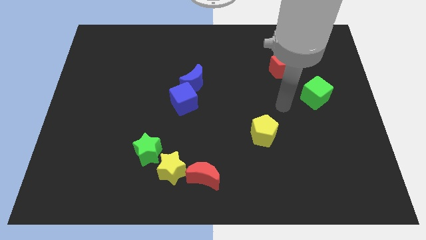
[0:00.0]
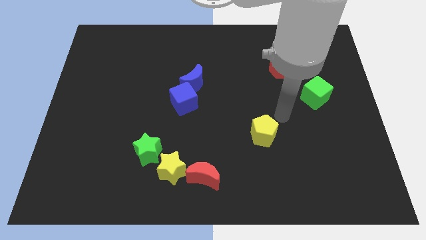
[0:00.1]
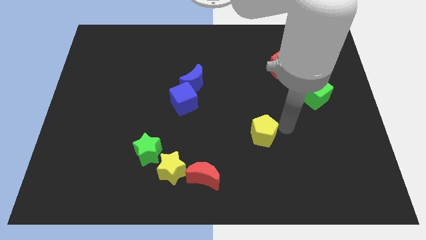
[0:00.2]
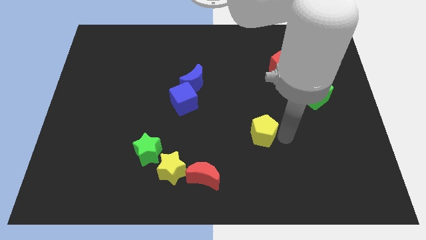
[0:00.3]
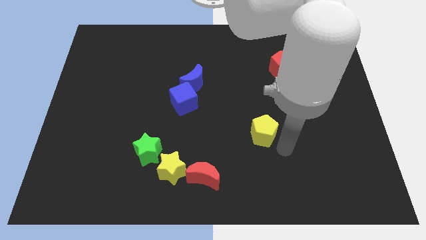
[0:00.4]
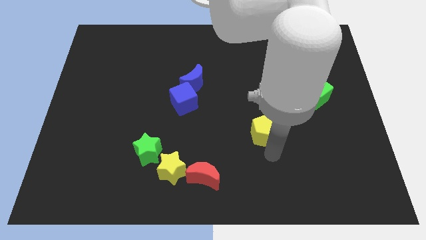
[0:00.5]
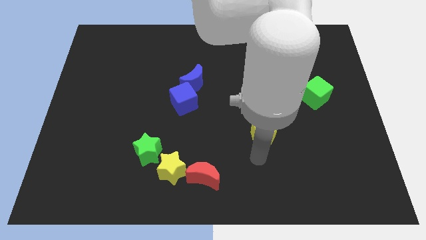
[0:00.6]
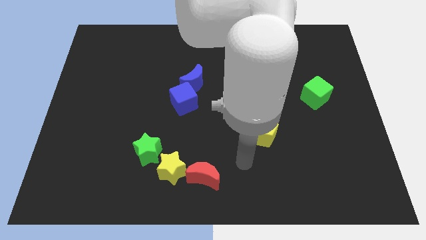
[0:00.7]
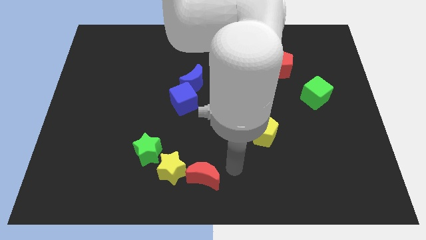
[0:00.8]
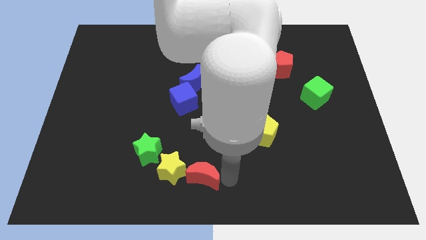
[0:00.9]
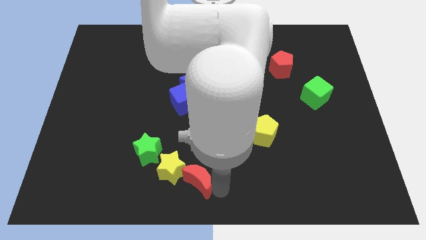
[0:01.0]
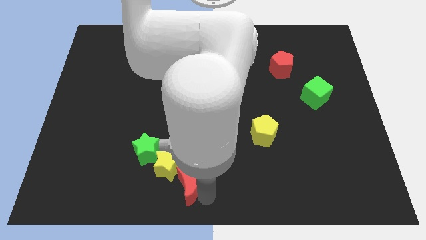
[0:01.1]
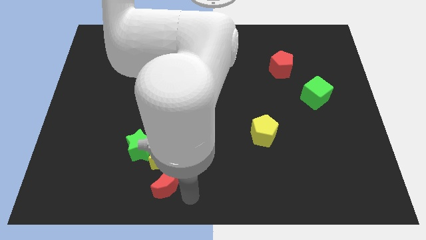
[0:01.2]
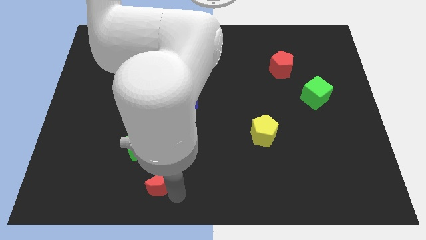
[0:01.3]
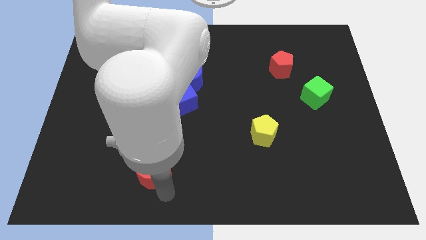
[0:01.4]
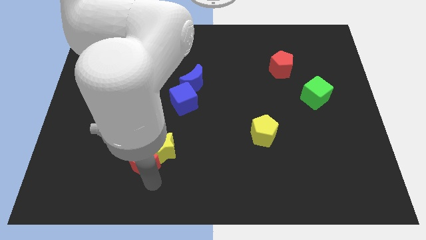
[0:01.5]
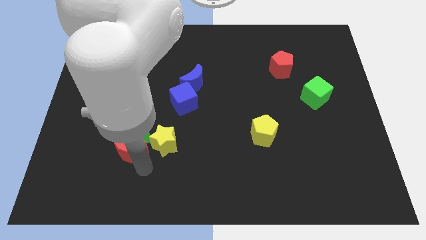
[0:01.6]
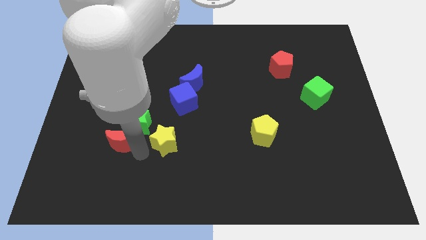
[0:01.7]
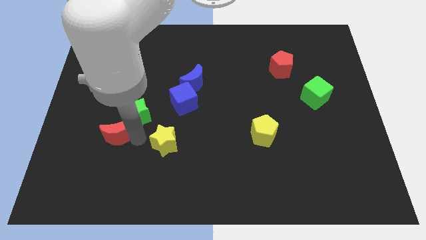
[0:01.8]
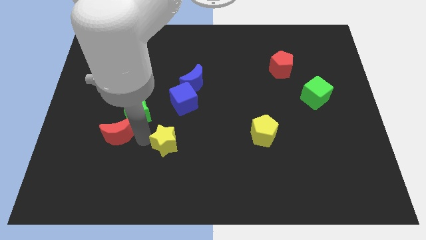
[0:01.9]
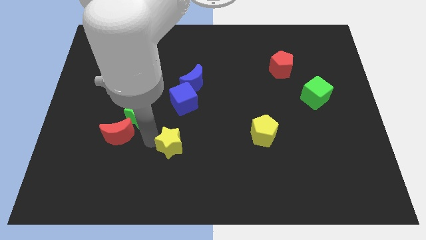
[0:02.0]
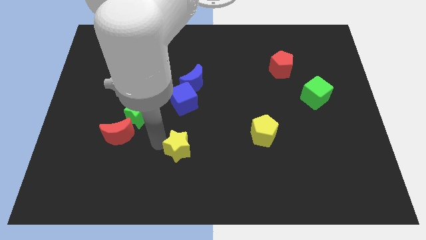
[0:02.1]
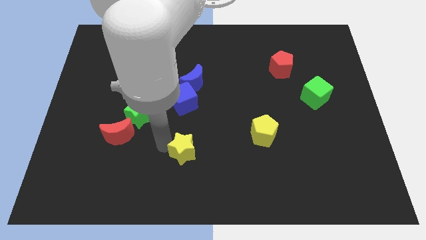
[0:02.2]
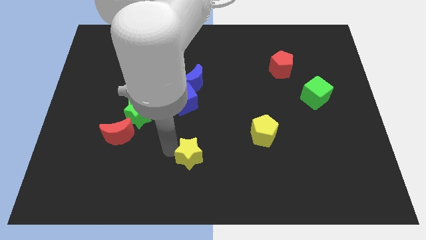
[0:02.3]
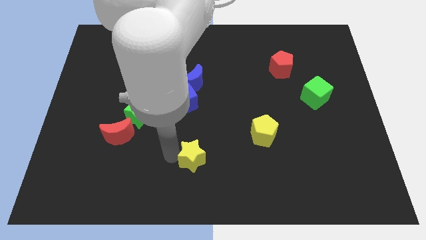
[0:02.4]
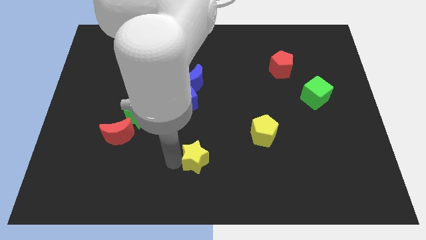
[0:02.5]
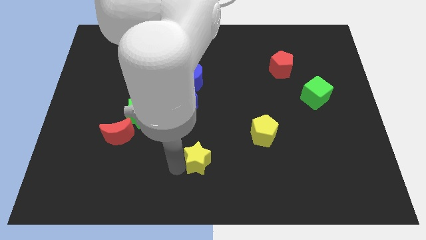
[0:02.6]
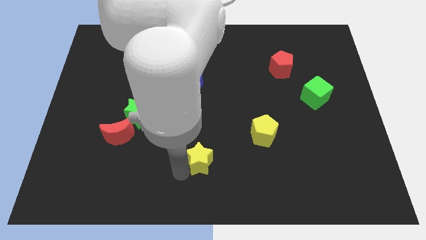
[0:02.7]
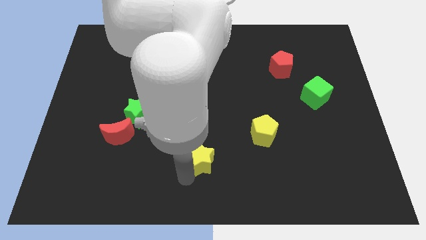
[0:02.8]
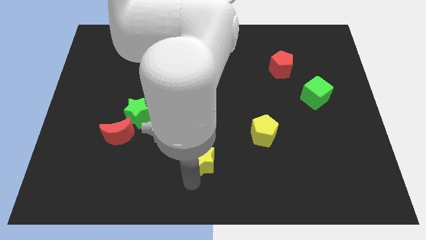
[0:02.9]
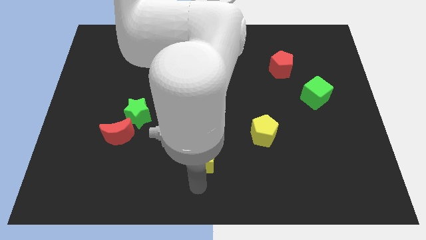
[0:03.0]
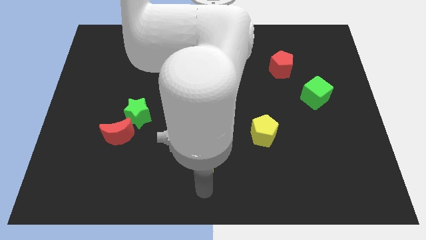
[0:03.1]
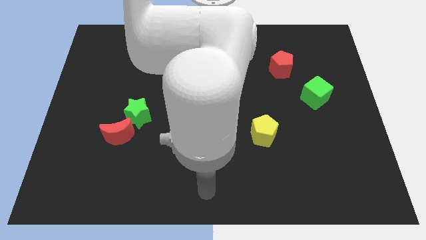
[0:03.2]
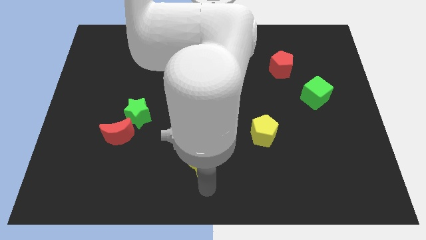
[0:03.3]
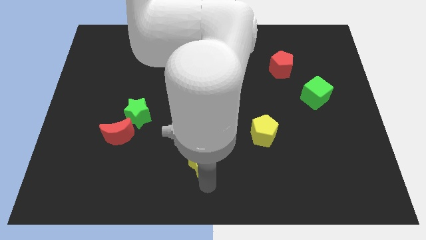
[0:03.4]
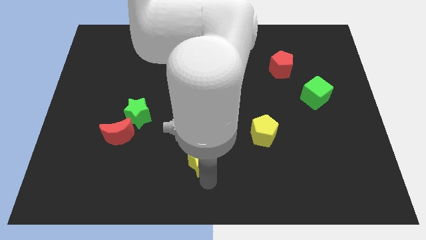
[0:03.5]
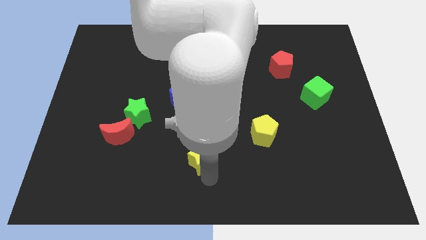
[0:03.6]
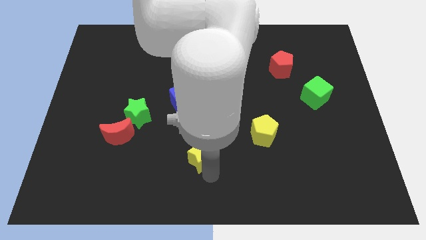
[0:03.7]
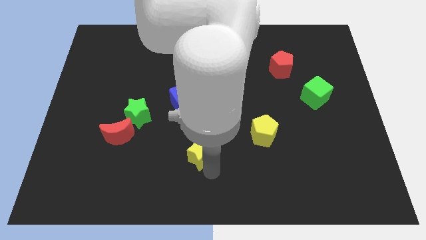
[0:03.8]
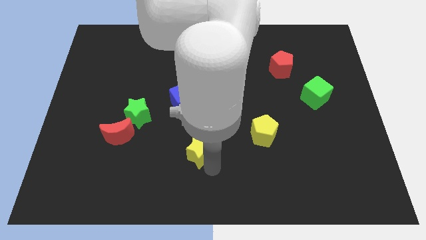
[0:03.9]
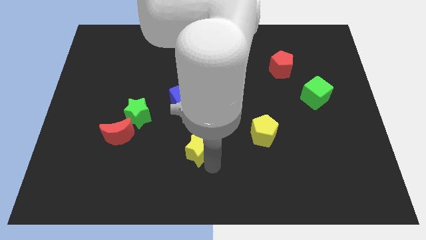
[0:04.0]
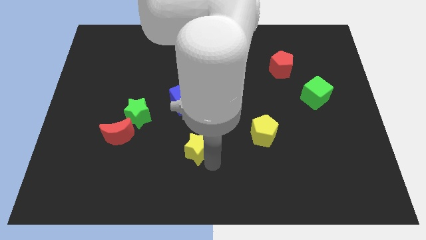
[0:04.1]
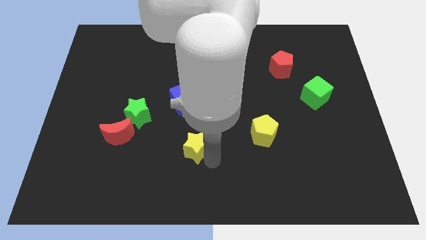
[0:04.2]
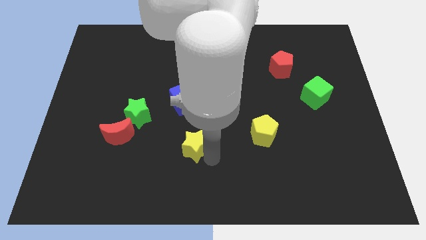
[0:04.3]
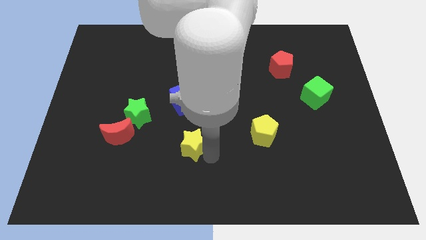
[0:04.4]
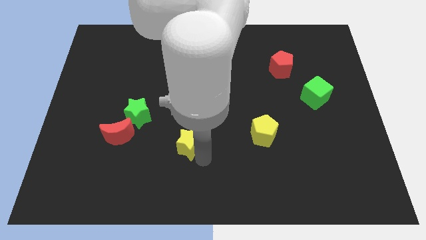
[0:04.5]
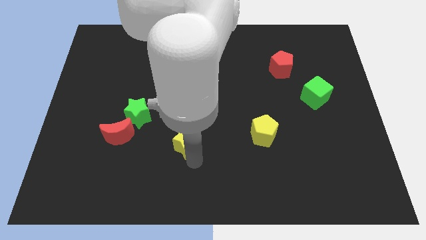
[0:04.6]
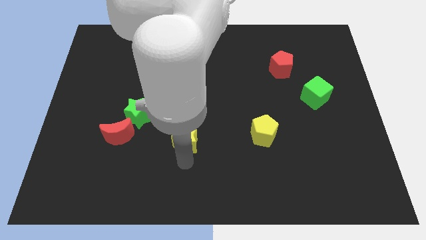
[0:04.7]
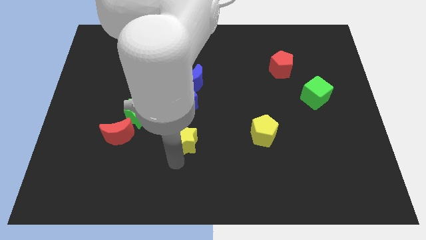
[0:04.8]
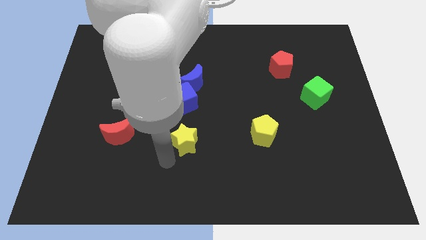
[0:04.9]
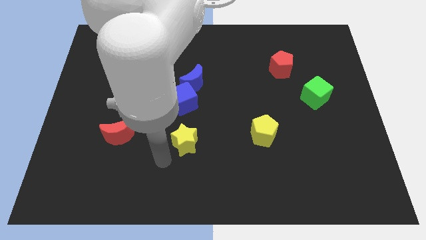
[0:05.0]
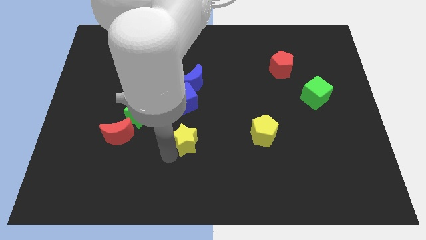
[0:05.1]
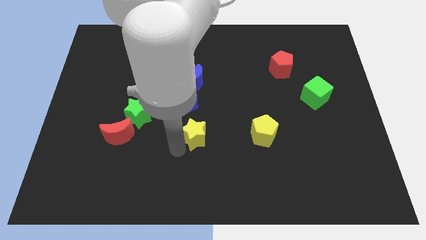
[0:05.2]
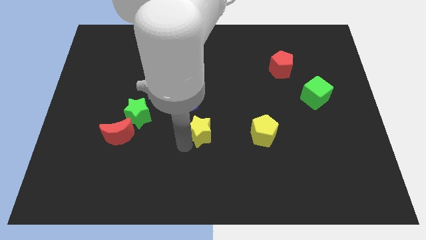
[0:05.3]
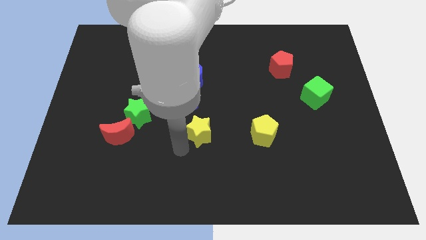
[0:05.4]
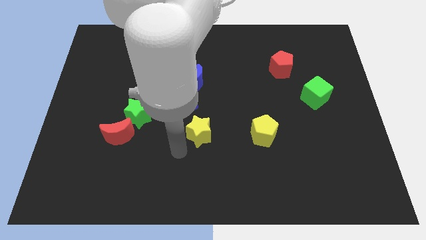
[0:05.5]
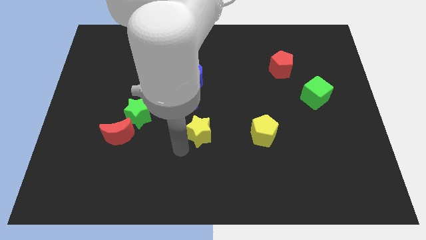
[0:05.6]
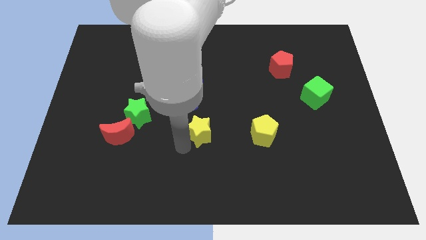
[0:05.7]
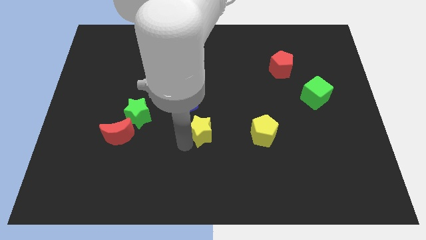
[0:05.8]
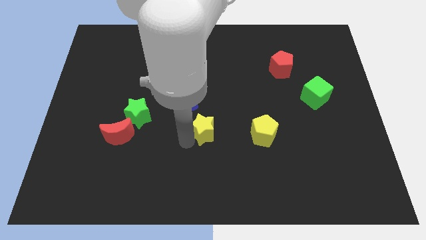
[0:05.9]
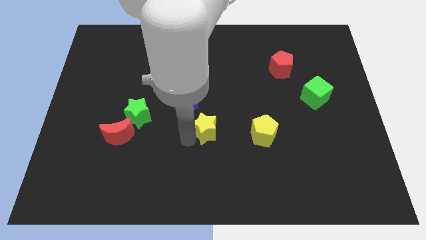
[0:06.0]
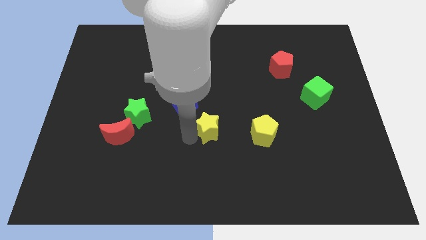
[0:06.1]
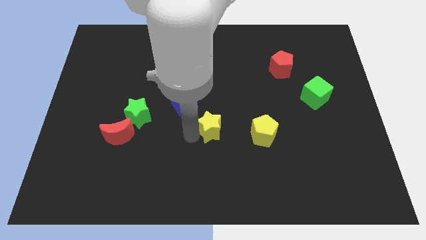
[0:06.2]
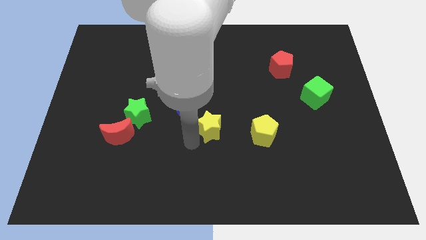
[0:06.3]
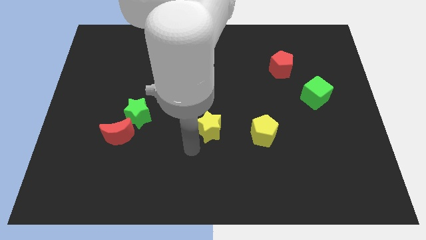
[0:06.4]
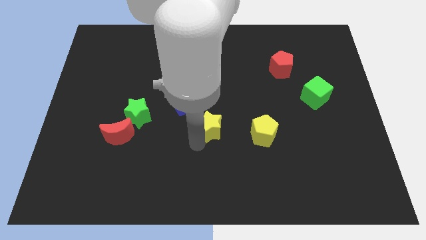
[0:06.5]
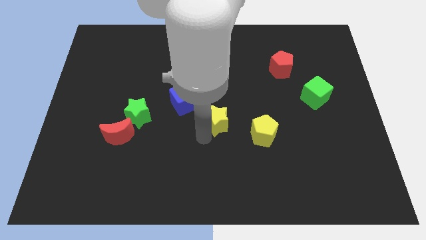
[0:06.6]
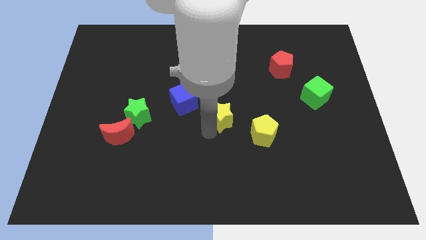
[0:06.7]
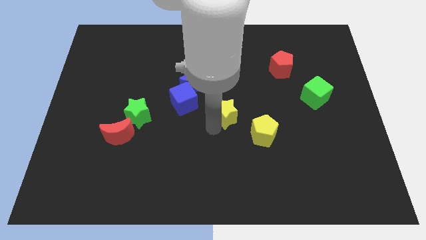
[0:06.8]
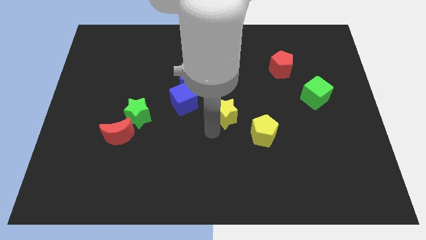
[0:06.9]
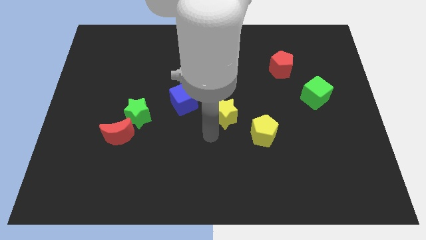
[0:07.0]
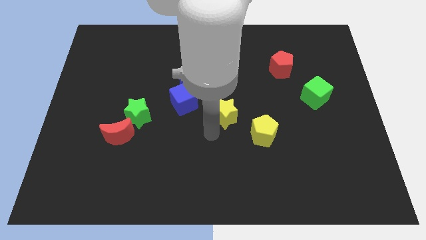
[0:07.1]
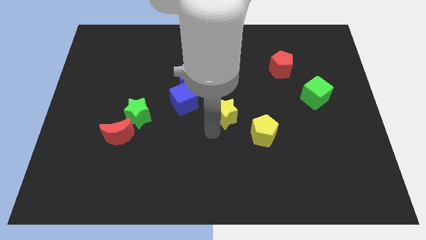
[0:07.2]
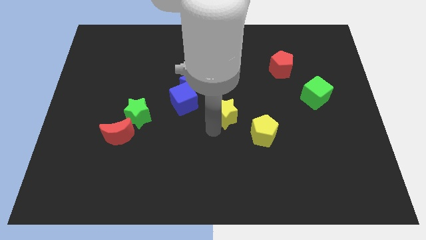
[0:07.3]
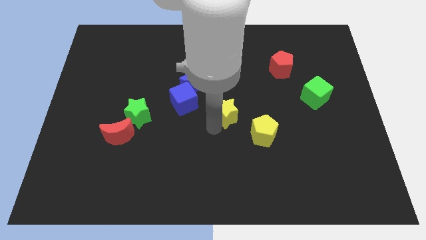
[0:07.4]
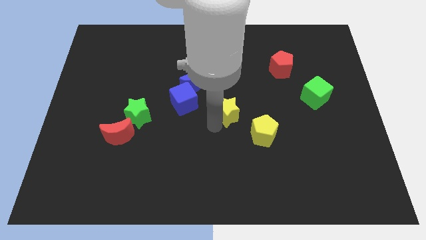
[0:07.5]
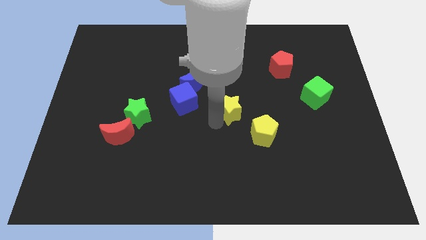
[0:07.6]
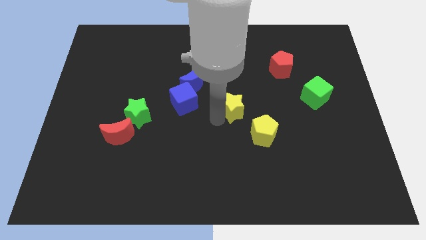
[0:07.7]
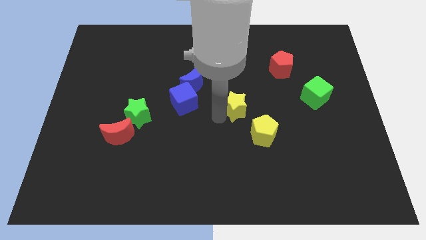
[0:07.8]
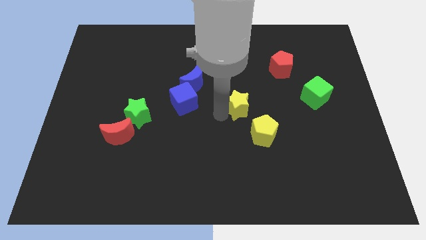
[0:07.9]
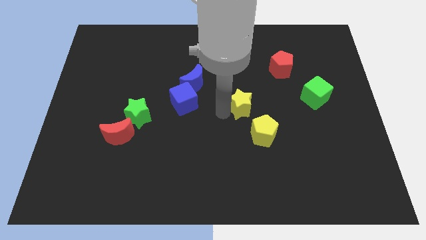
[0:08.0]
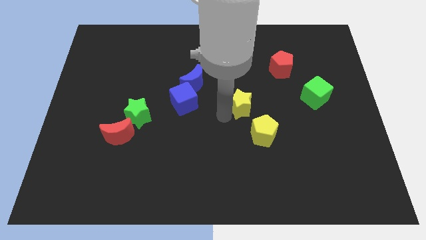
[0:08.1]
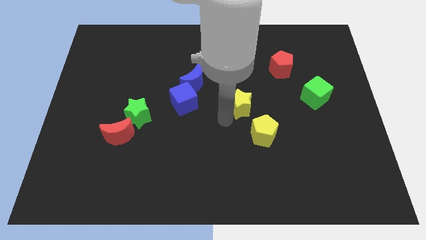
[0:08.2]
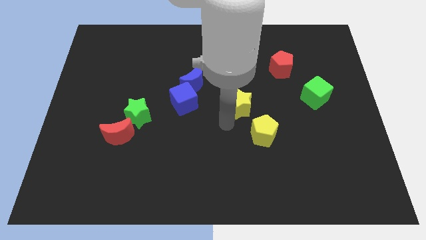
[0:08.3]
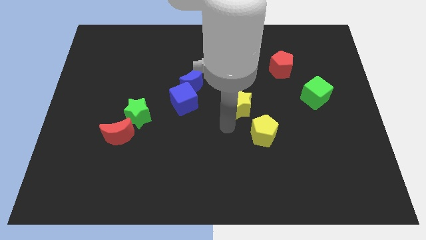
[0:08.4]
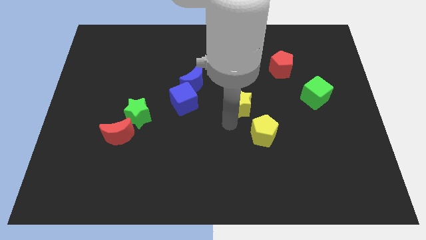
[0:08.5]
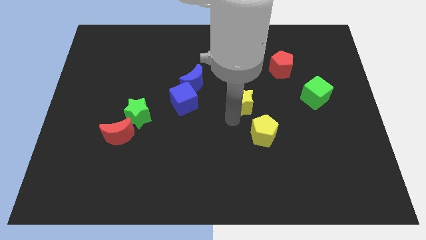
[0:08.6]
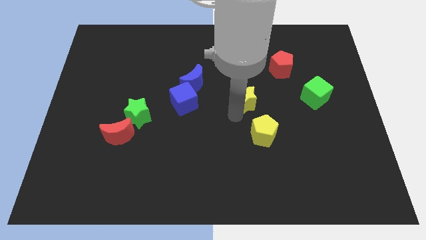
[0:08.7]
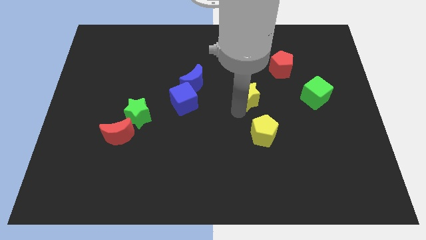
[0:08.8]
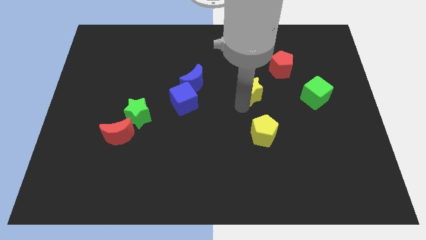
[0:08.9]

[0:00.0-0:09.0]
put the yellow star to the bottom left side of the red pentagon
